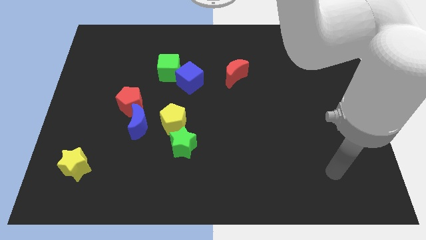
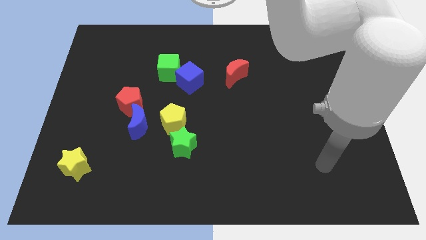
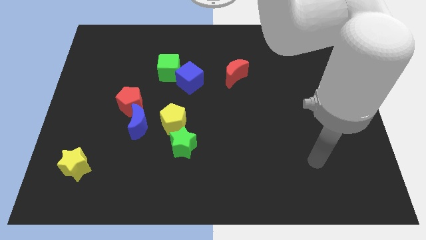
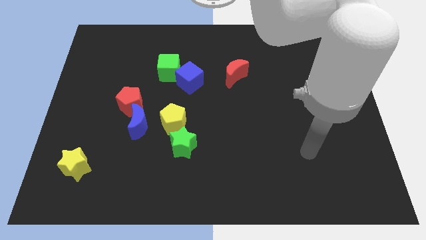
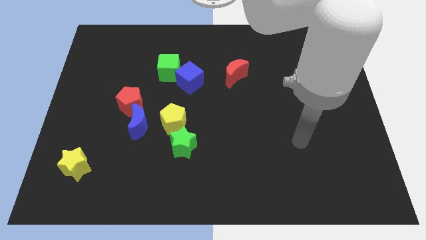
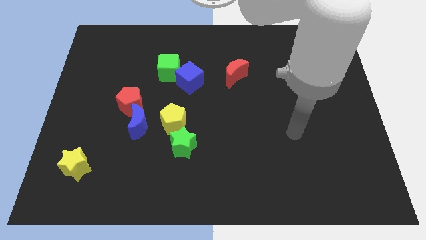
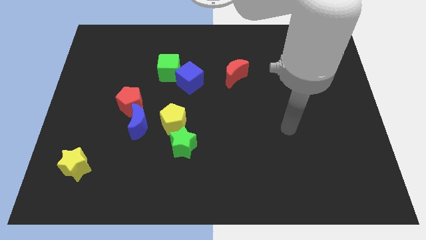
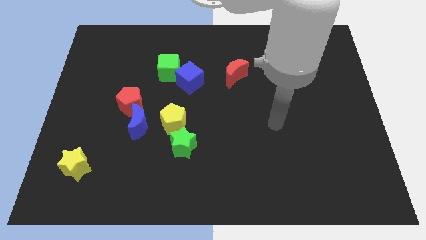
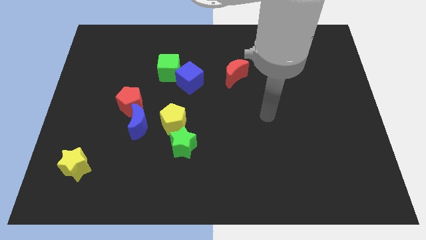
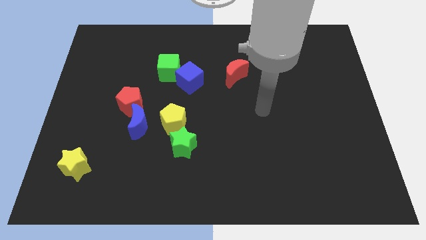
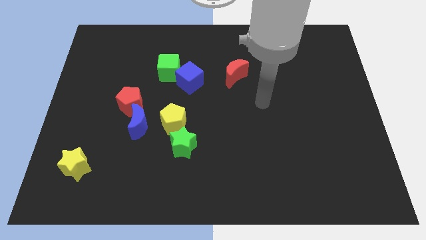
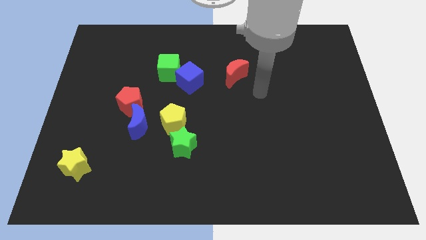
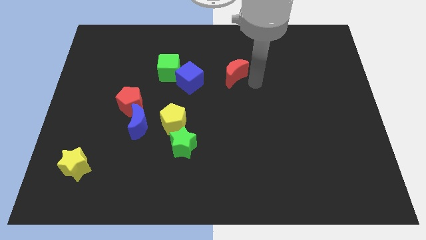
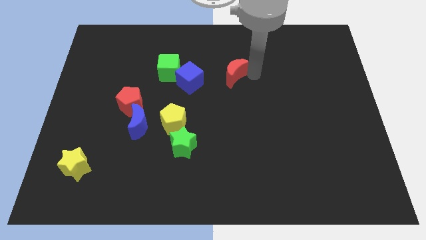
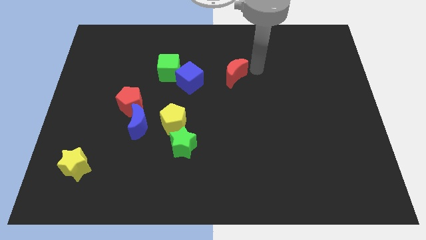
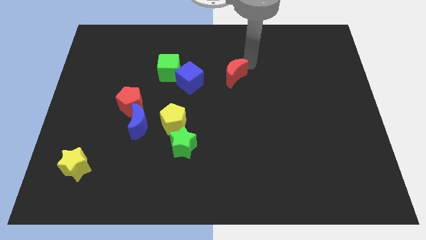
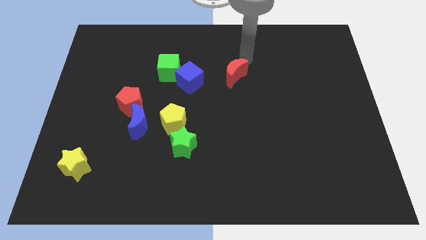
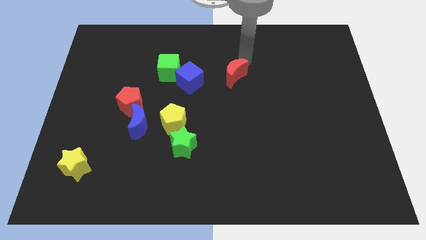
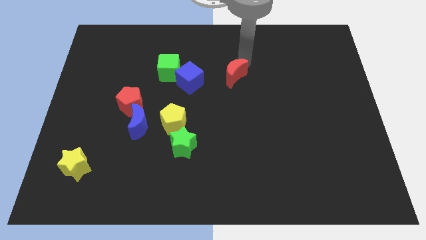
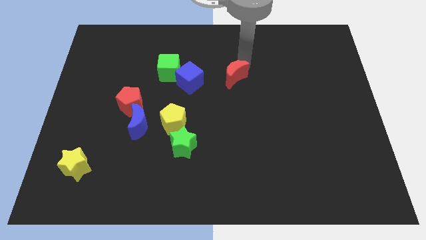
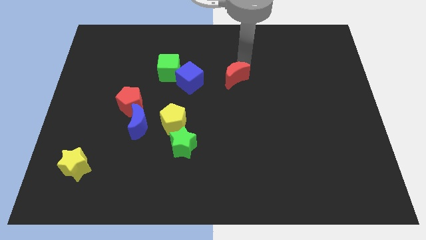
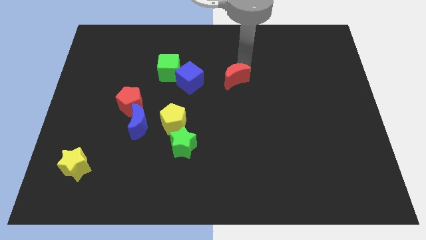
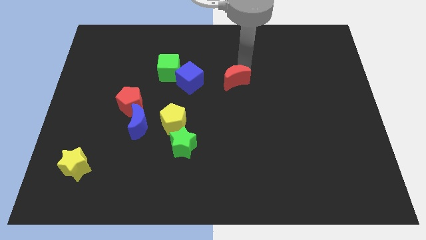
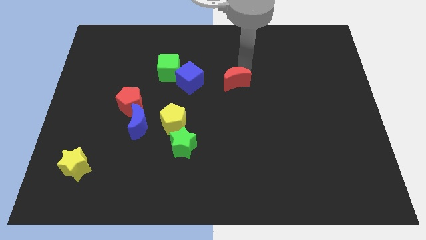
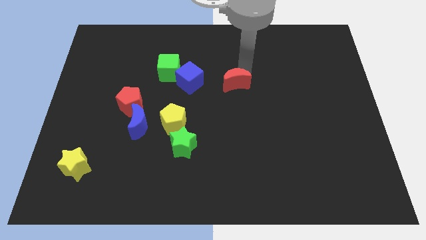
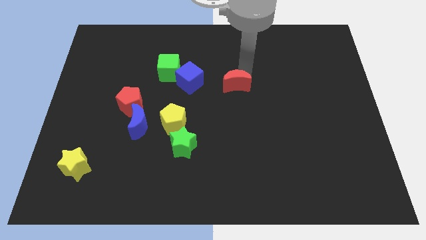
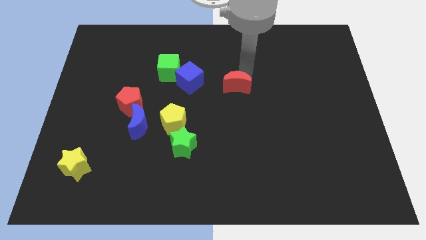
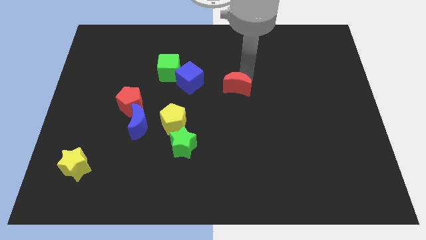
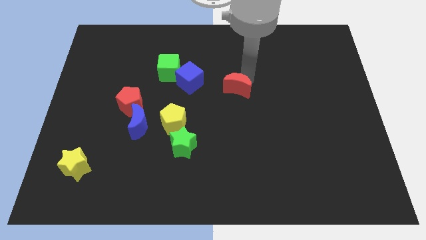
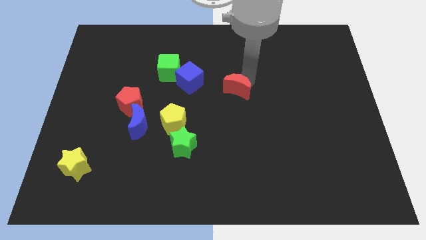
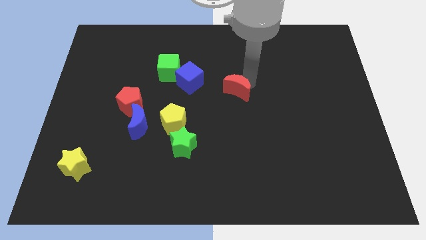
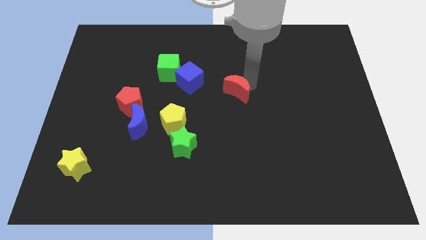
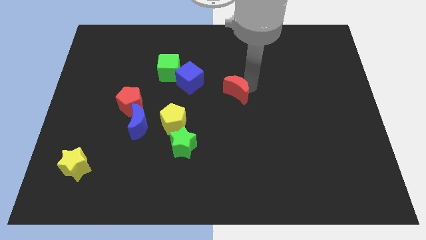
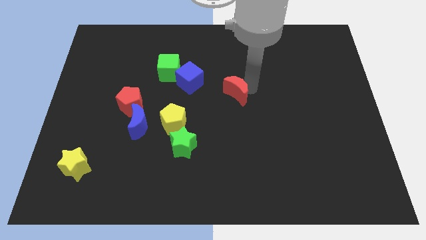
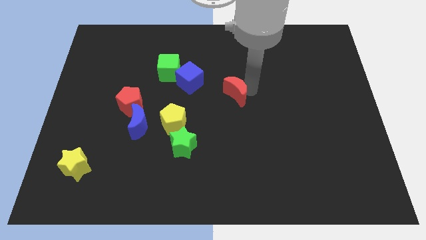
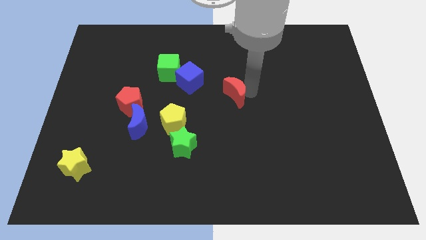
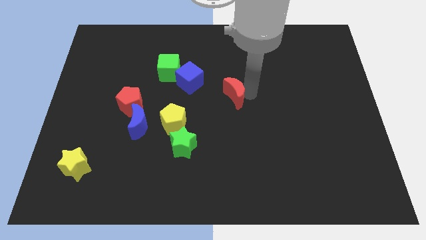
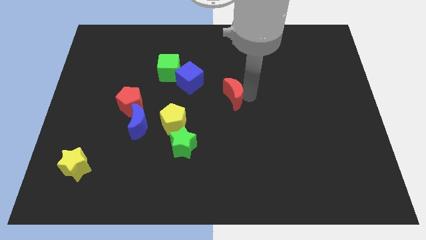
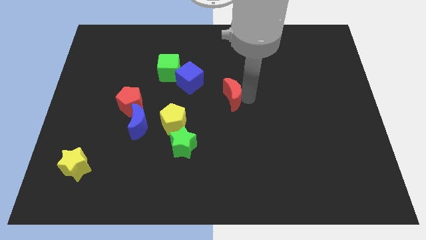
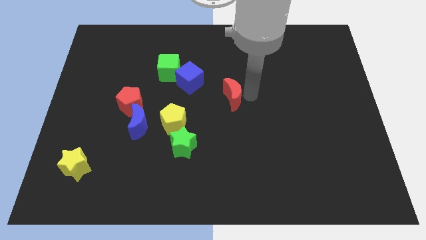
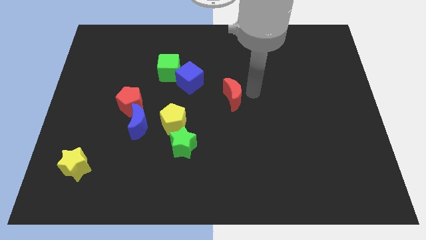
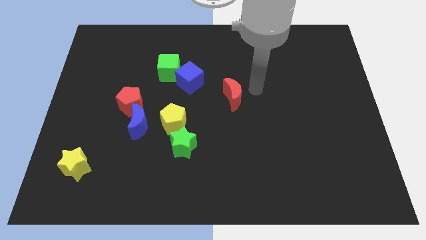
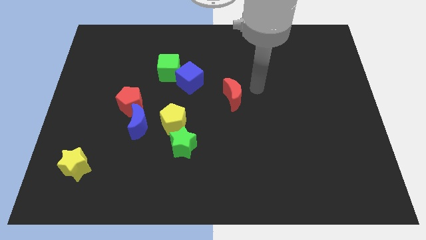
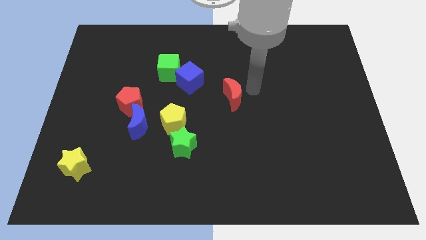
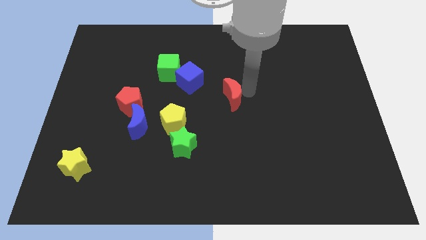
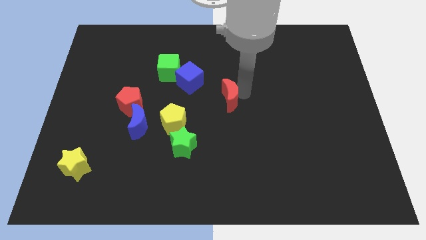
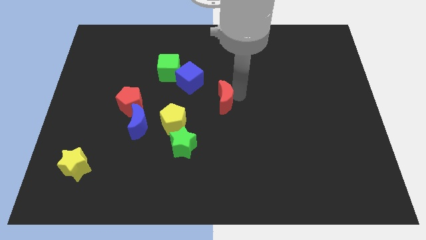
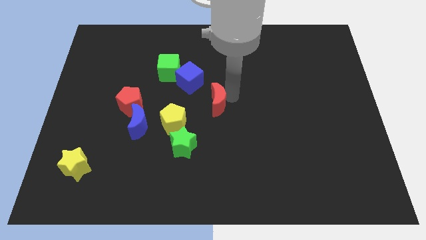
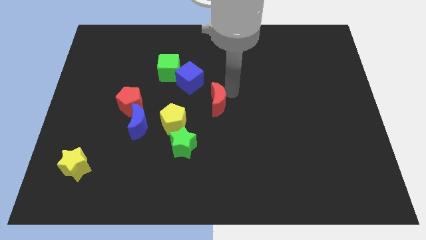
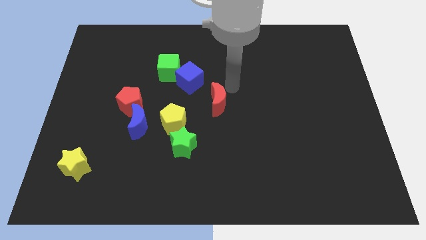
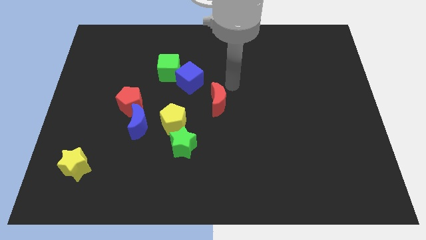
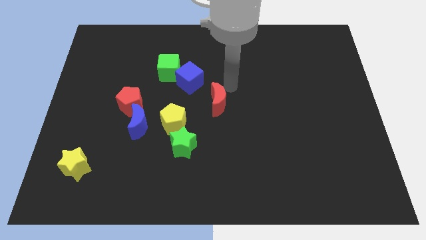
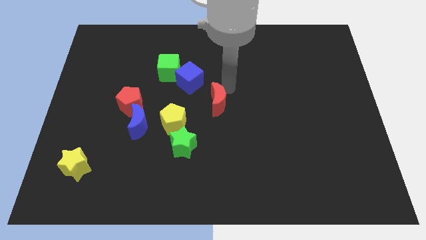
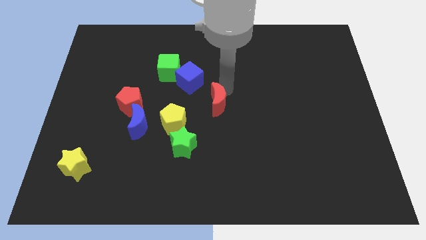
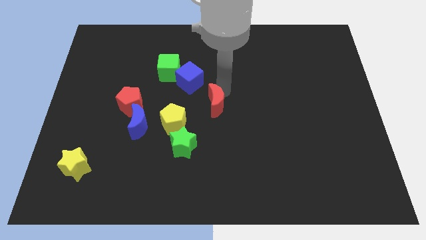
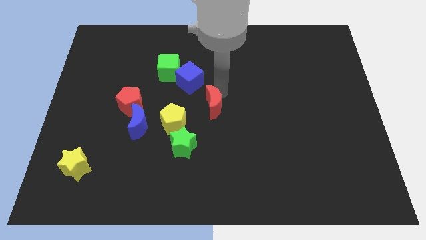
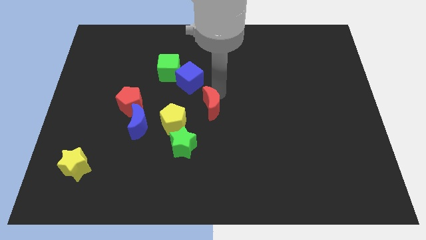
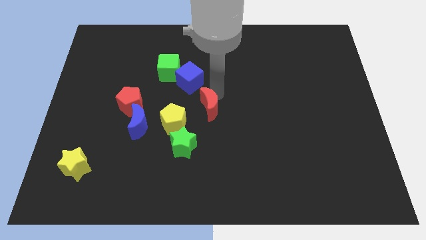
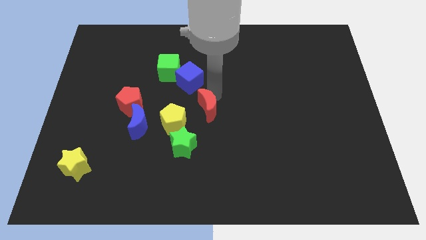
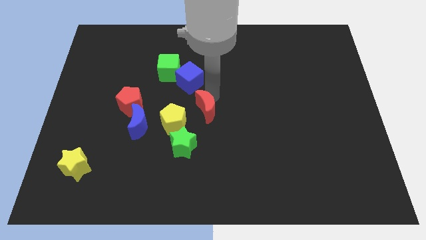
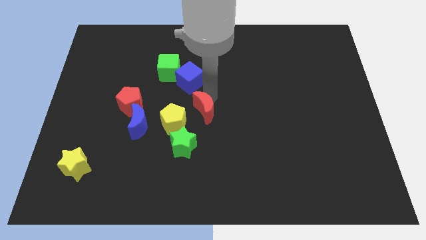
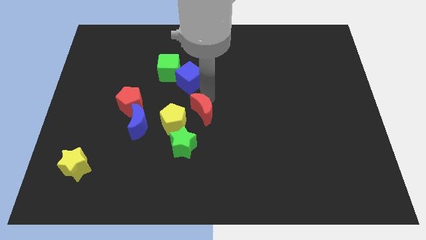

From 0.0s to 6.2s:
push the red moon just right of the blue moon
